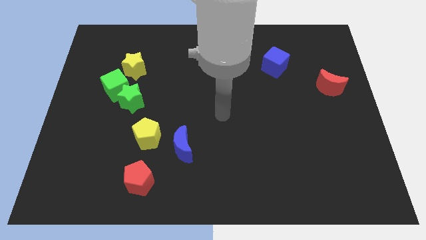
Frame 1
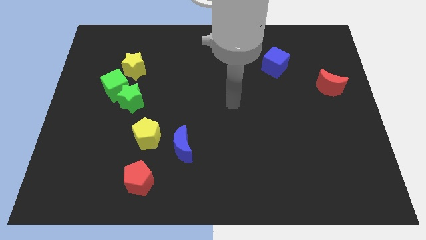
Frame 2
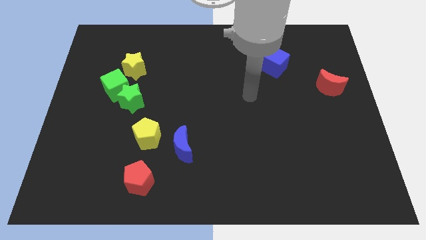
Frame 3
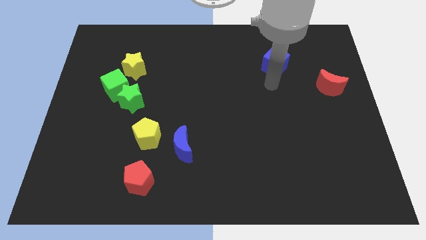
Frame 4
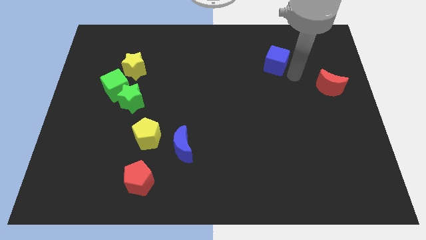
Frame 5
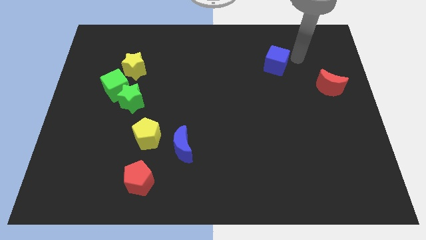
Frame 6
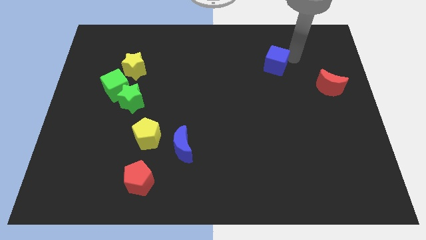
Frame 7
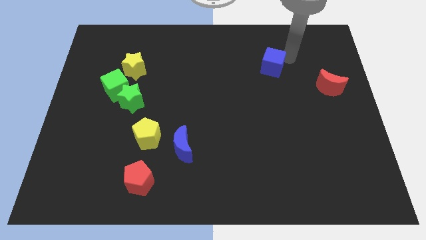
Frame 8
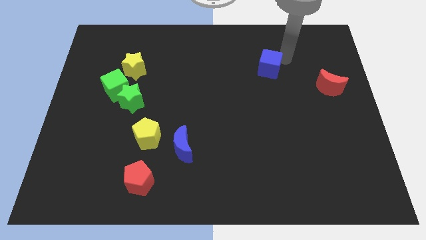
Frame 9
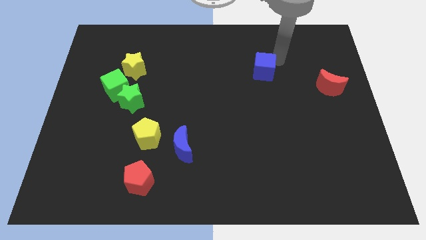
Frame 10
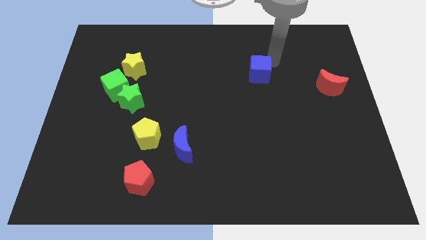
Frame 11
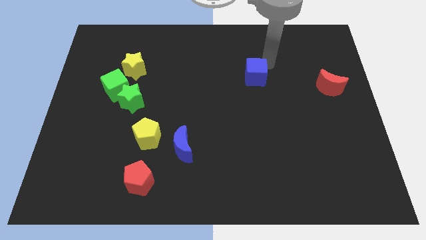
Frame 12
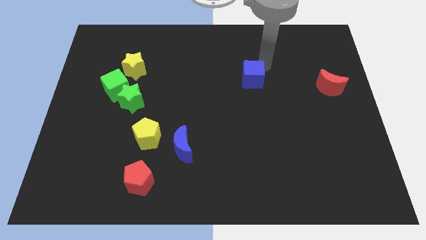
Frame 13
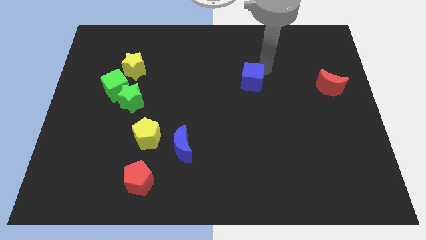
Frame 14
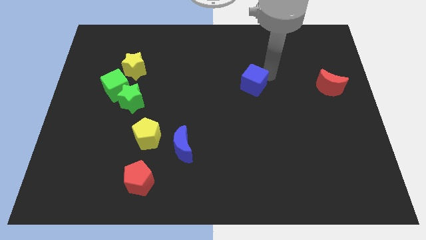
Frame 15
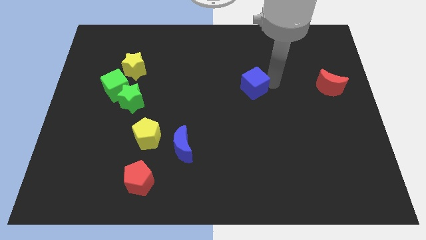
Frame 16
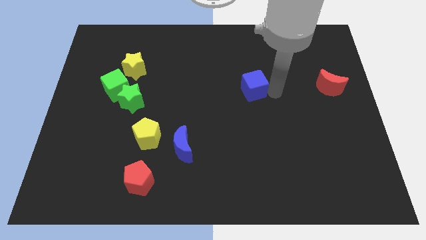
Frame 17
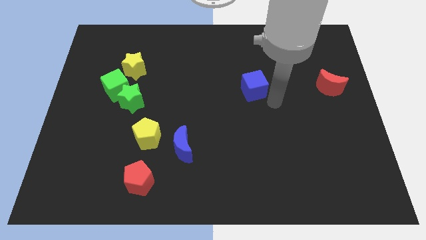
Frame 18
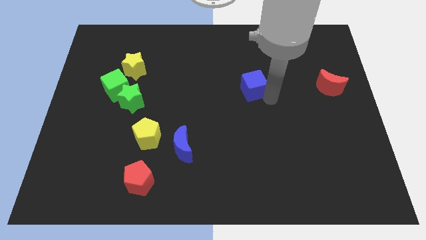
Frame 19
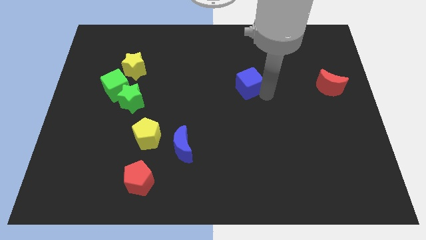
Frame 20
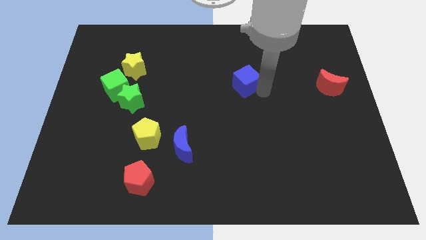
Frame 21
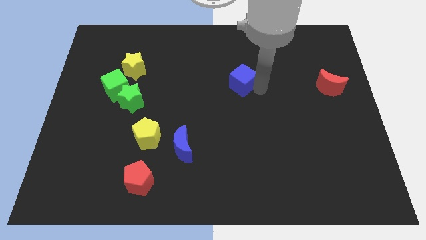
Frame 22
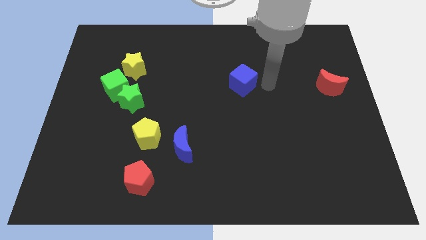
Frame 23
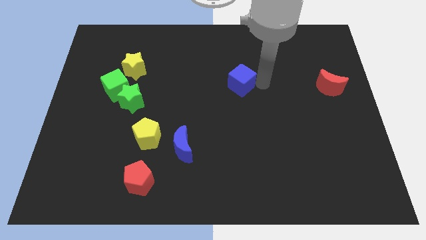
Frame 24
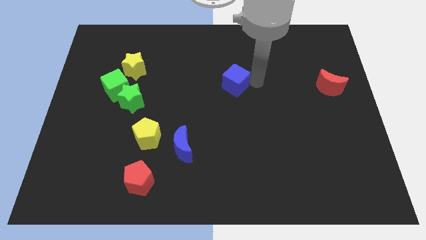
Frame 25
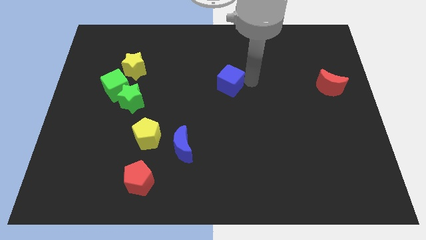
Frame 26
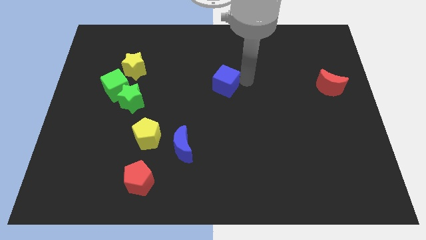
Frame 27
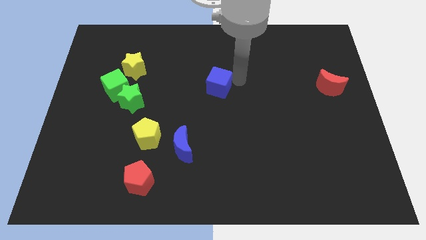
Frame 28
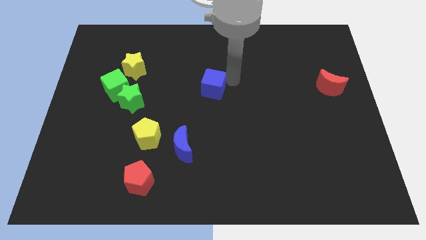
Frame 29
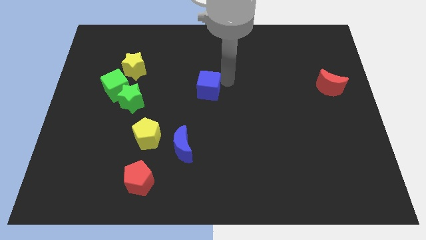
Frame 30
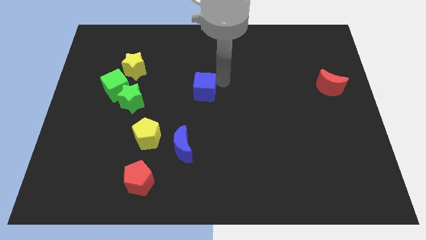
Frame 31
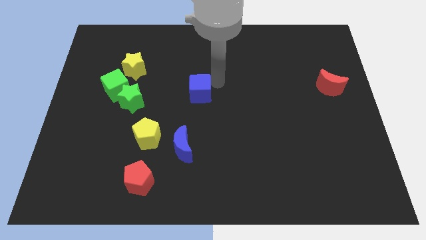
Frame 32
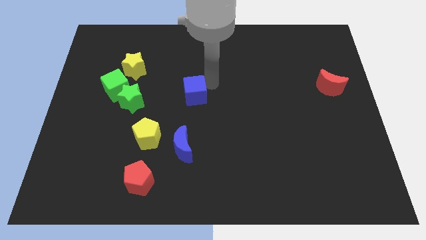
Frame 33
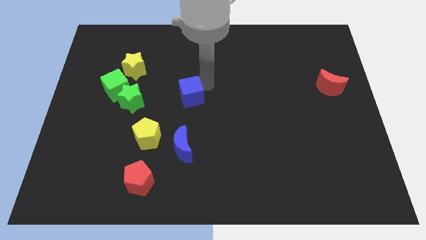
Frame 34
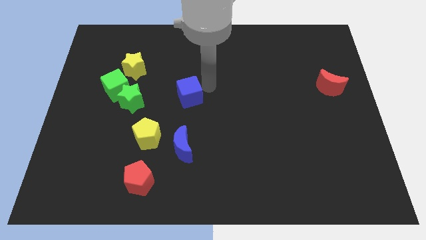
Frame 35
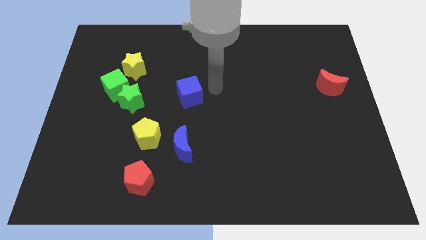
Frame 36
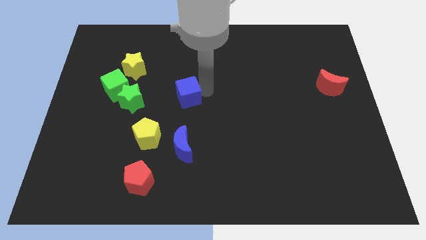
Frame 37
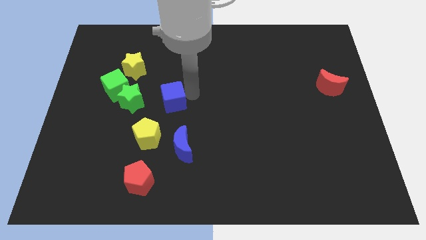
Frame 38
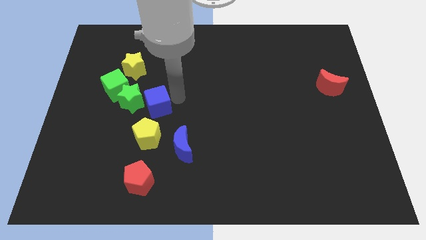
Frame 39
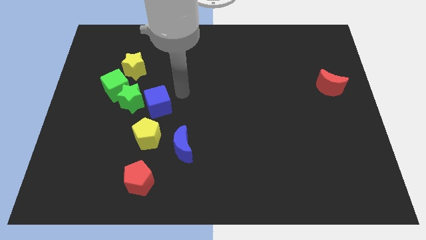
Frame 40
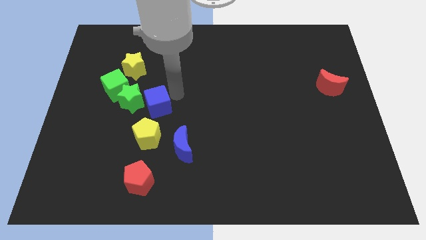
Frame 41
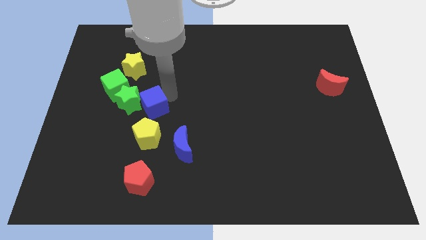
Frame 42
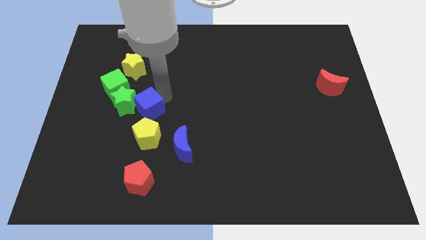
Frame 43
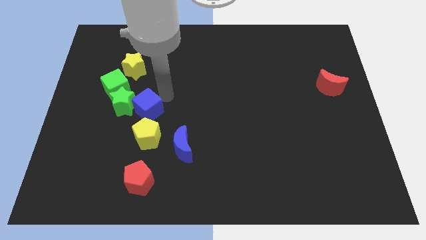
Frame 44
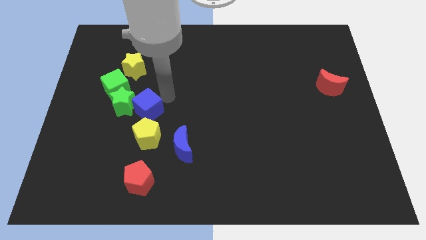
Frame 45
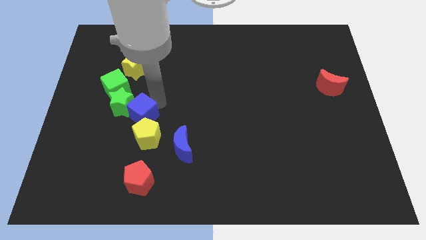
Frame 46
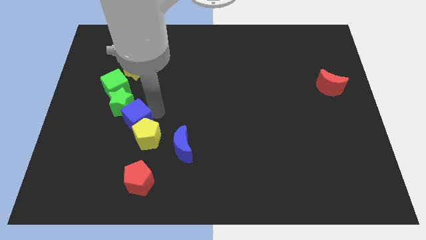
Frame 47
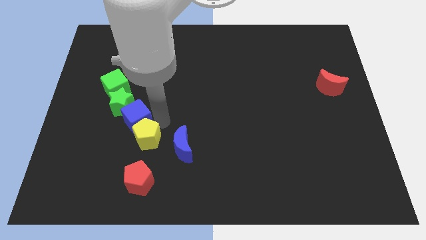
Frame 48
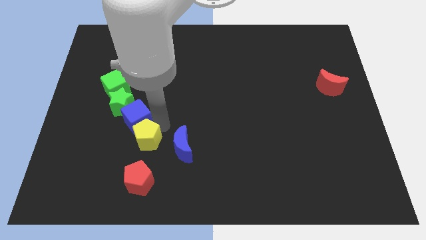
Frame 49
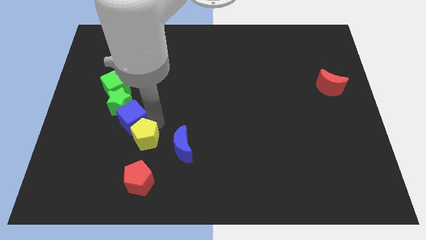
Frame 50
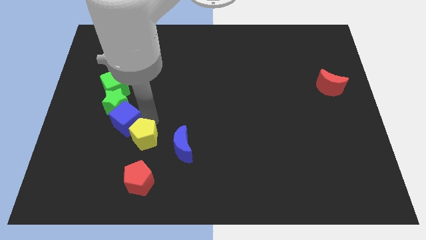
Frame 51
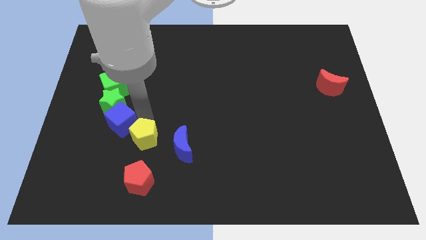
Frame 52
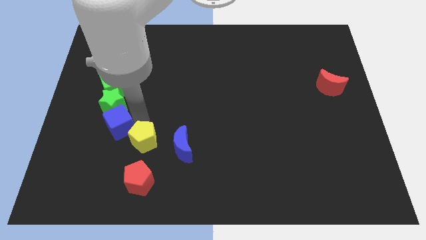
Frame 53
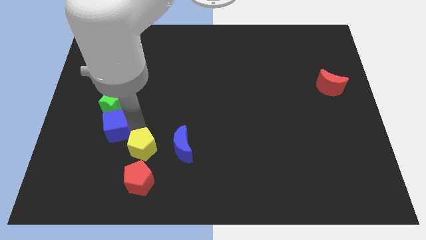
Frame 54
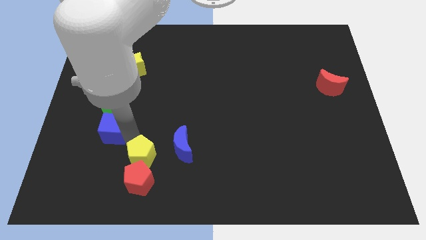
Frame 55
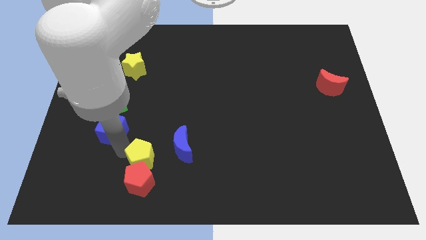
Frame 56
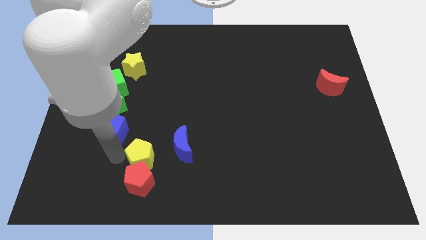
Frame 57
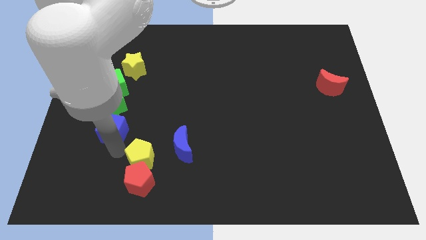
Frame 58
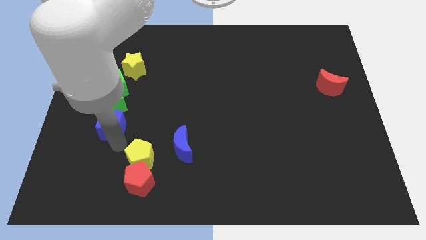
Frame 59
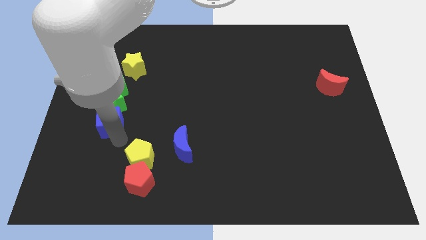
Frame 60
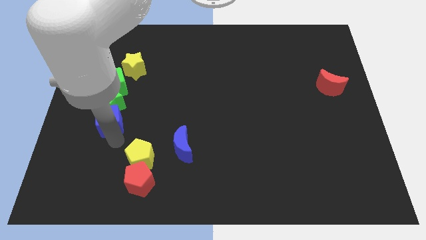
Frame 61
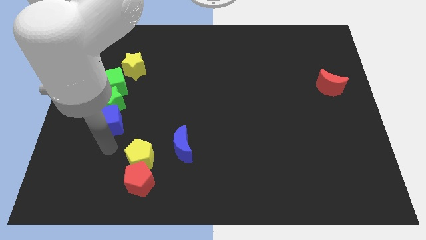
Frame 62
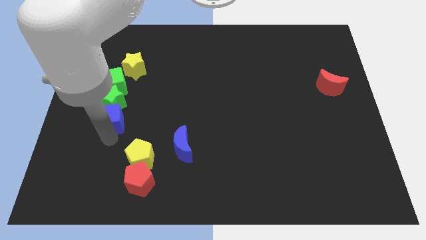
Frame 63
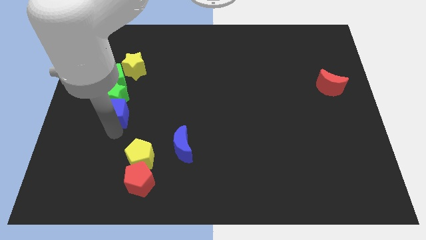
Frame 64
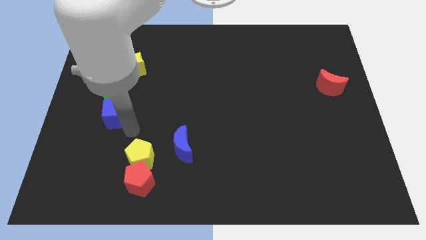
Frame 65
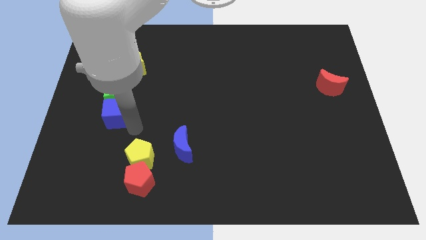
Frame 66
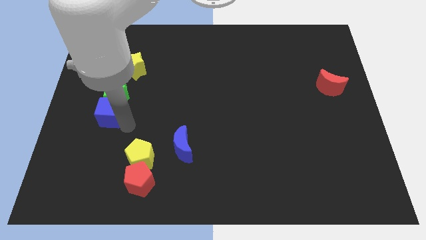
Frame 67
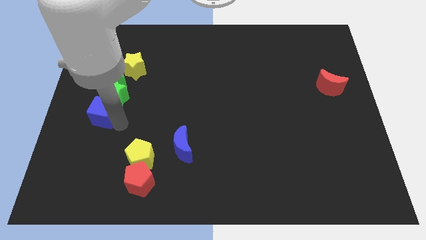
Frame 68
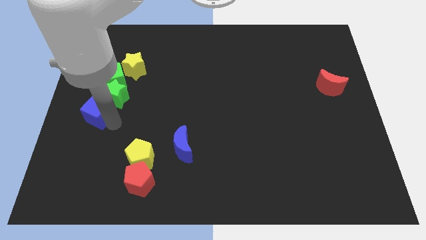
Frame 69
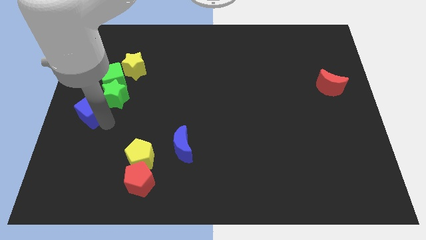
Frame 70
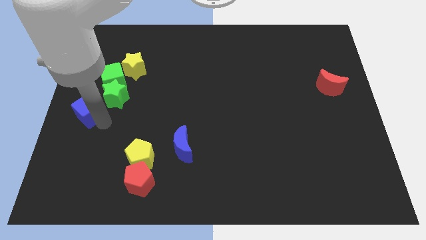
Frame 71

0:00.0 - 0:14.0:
push the blue cube to the bottom left of the green cube

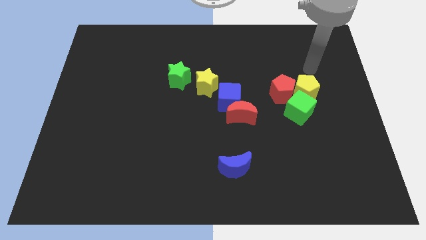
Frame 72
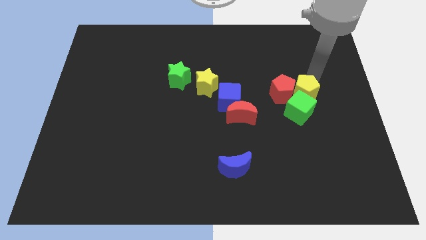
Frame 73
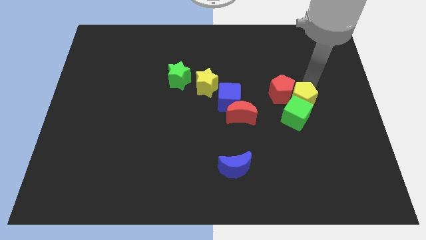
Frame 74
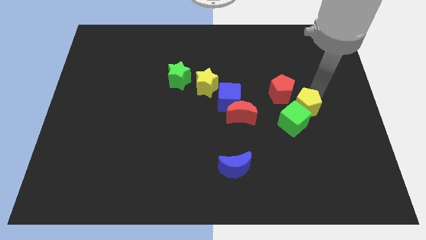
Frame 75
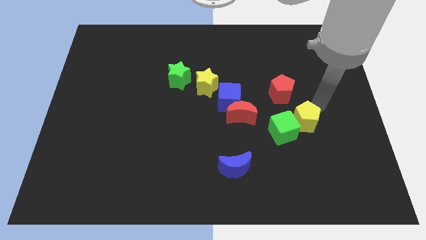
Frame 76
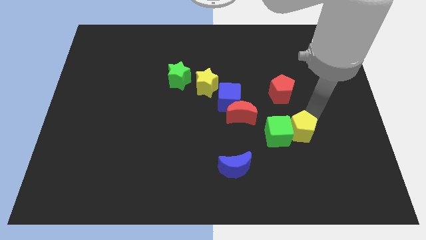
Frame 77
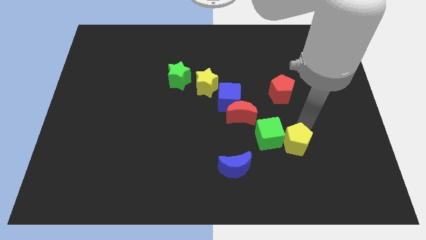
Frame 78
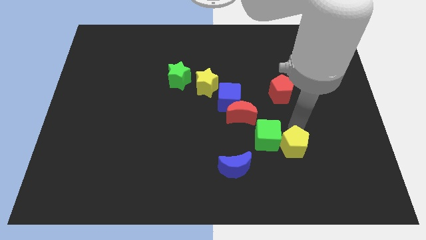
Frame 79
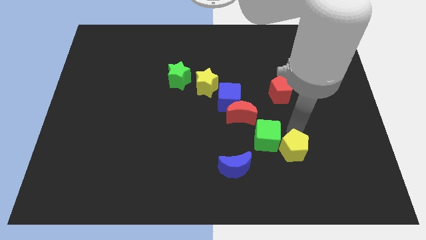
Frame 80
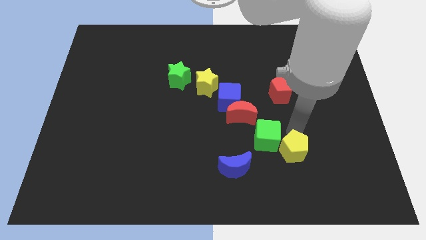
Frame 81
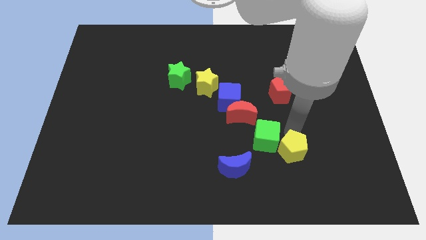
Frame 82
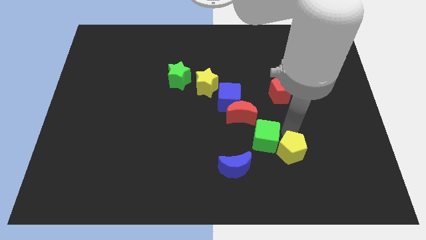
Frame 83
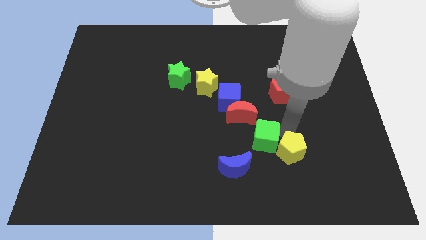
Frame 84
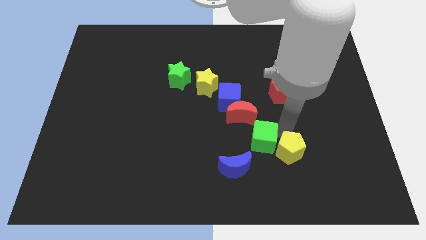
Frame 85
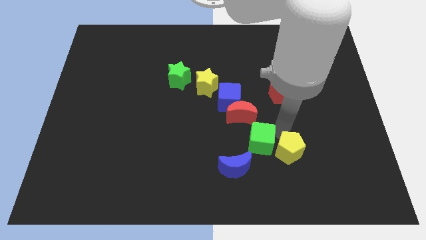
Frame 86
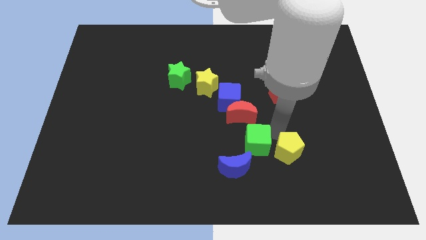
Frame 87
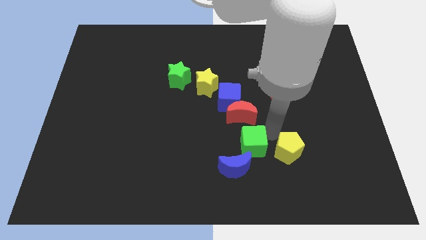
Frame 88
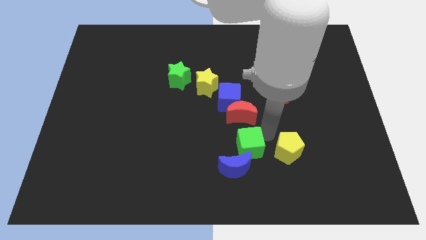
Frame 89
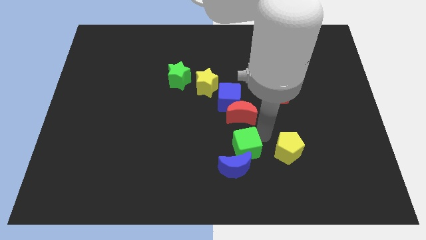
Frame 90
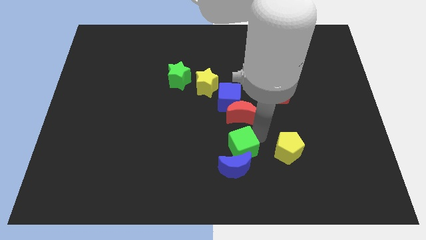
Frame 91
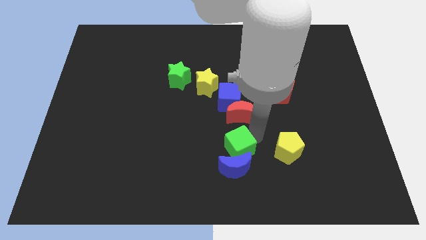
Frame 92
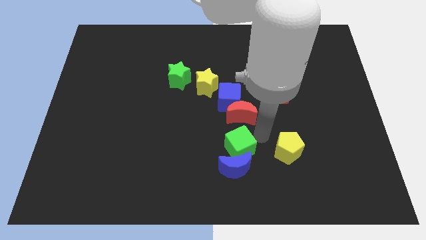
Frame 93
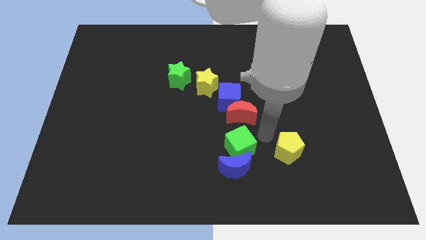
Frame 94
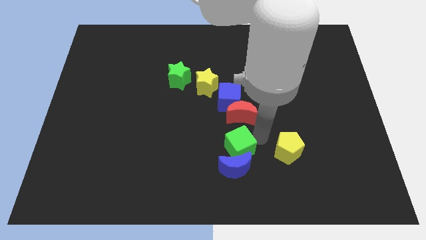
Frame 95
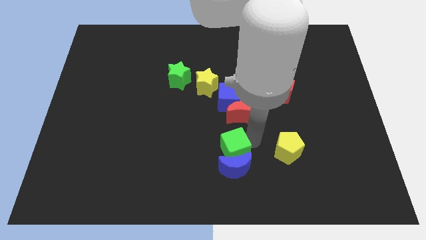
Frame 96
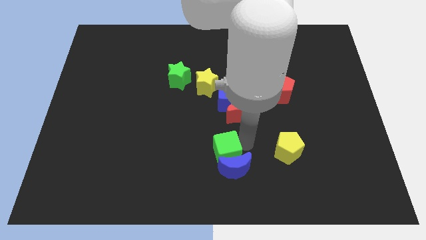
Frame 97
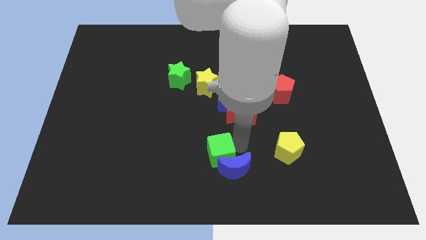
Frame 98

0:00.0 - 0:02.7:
put the green cube just left of the blue moon
